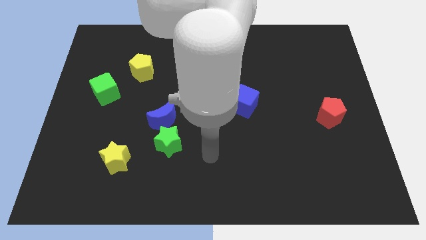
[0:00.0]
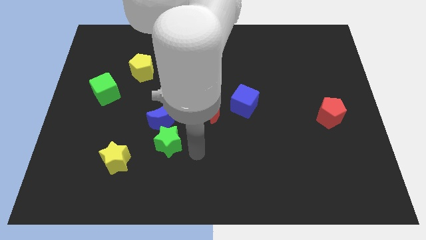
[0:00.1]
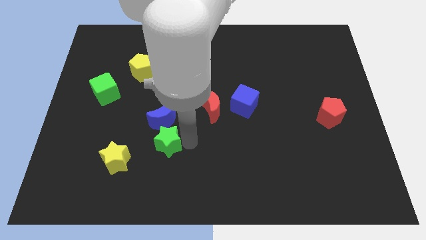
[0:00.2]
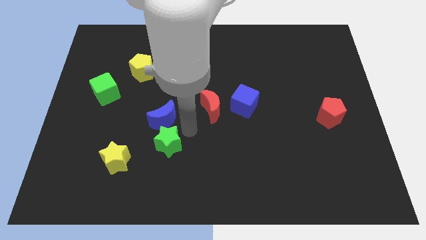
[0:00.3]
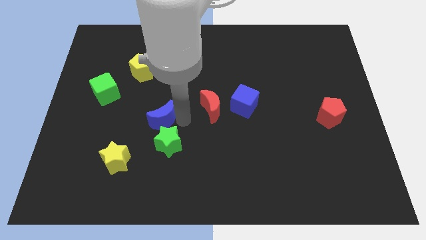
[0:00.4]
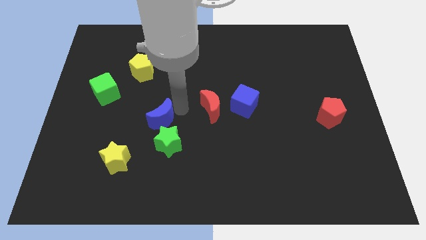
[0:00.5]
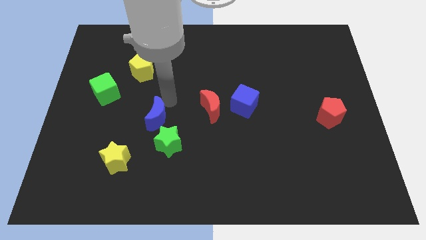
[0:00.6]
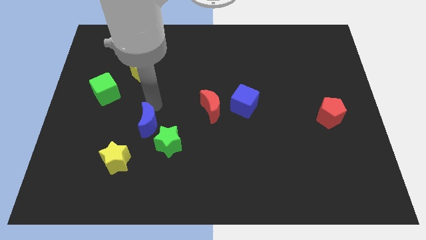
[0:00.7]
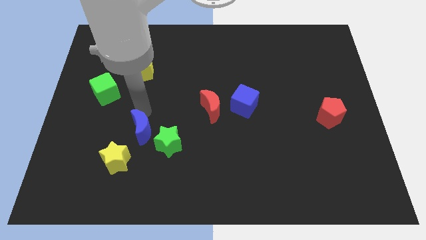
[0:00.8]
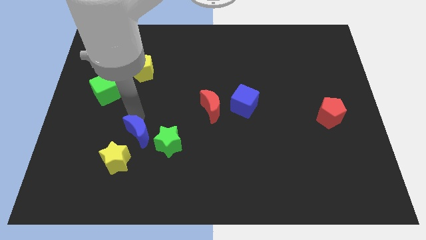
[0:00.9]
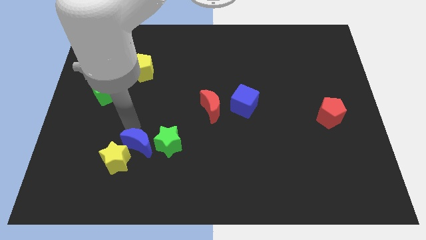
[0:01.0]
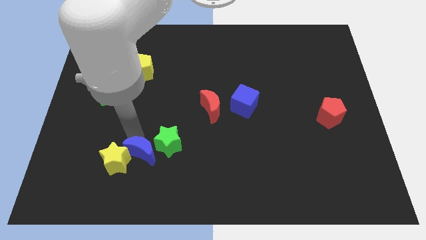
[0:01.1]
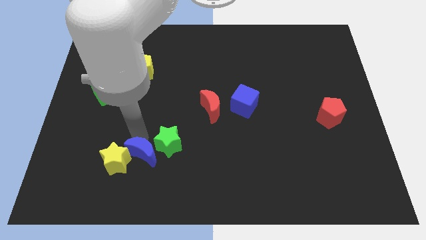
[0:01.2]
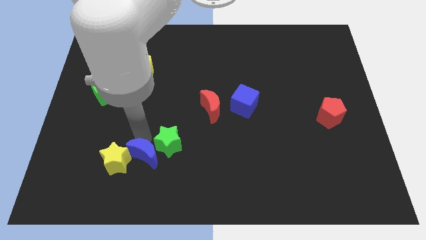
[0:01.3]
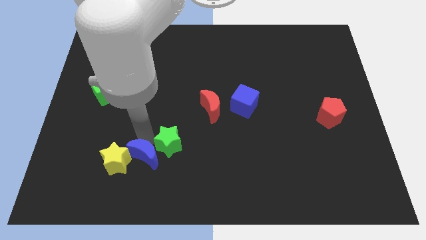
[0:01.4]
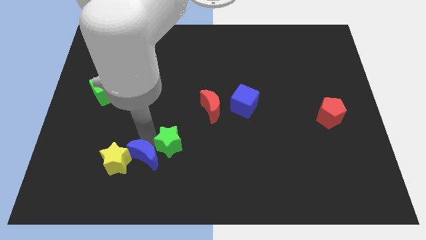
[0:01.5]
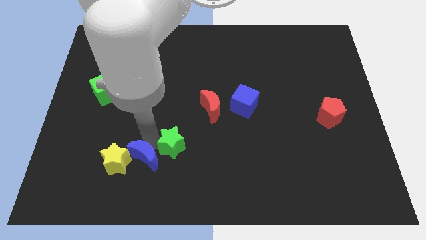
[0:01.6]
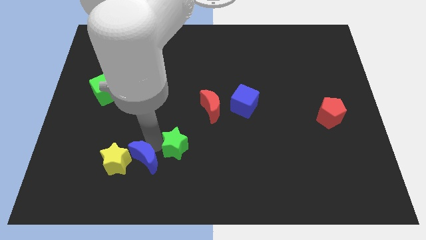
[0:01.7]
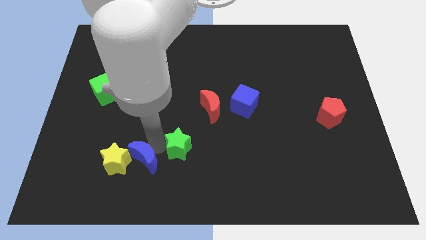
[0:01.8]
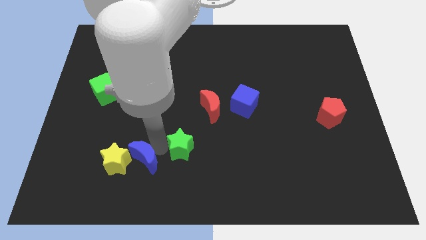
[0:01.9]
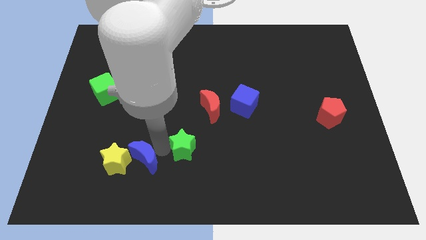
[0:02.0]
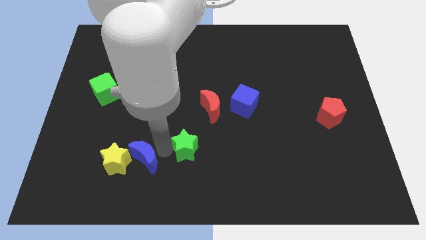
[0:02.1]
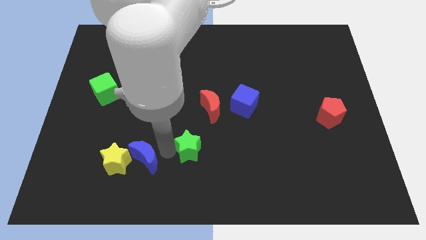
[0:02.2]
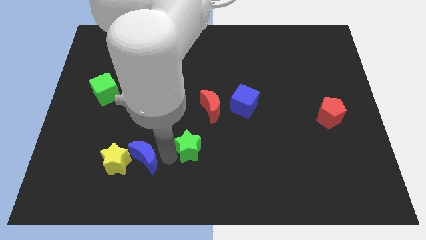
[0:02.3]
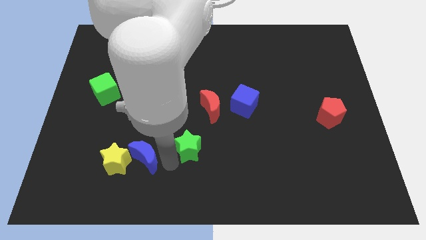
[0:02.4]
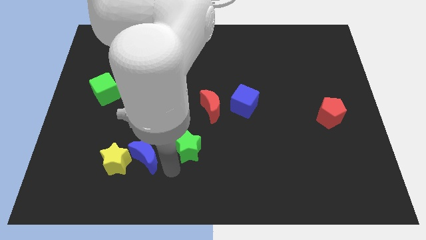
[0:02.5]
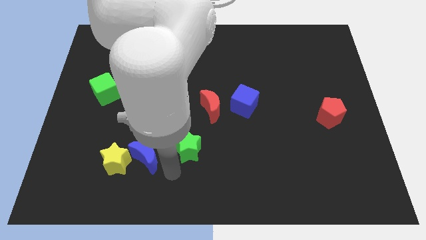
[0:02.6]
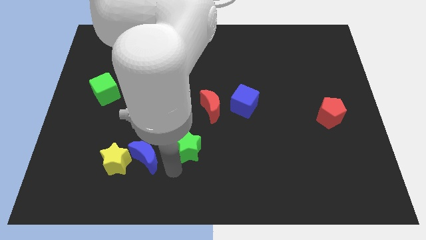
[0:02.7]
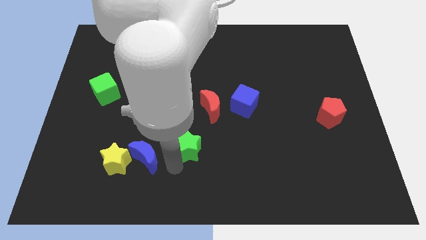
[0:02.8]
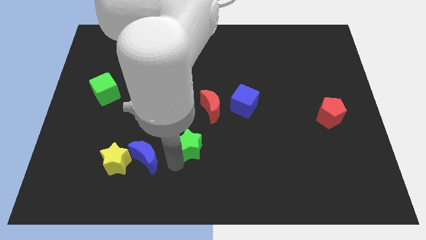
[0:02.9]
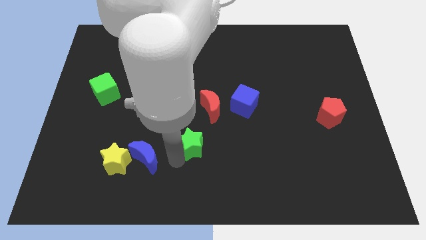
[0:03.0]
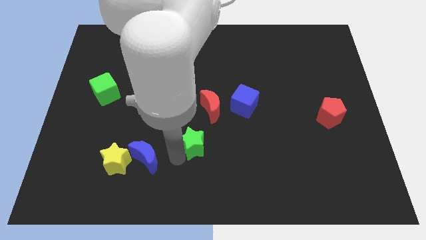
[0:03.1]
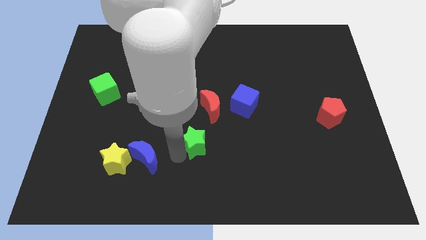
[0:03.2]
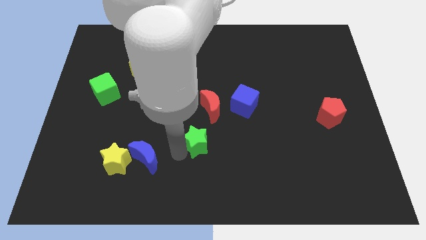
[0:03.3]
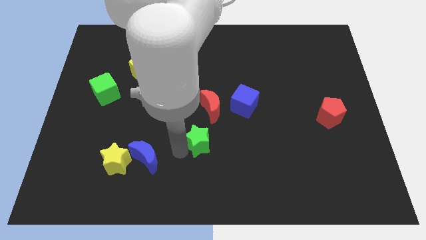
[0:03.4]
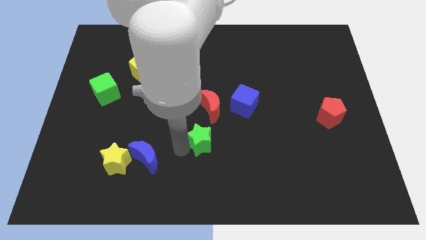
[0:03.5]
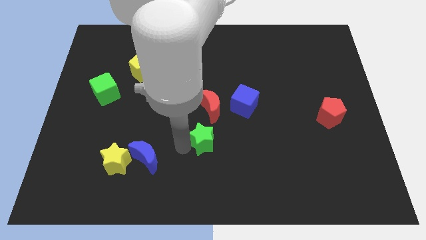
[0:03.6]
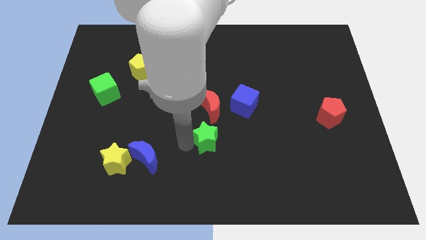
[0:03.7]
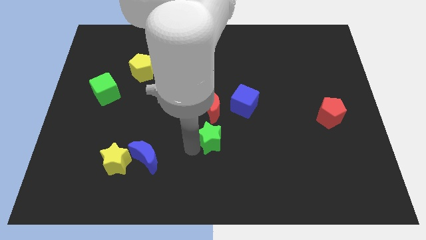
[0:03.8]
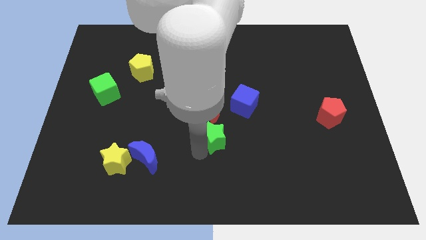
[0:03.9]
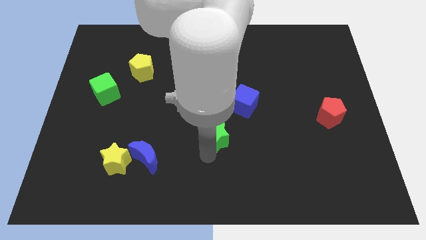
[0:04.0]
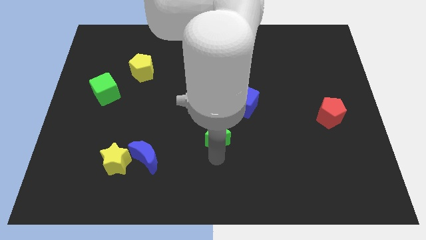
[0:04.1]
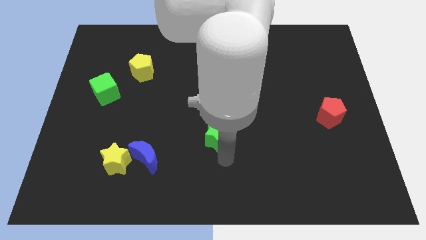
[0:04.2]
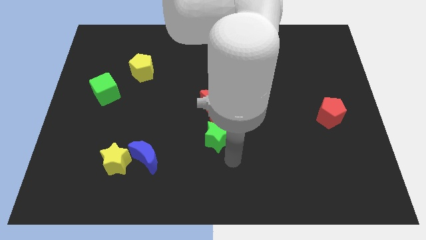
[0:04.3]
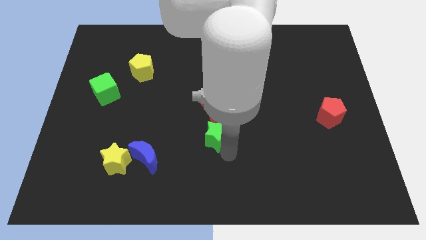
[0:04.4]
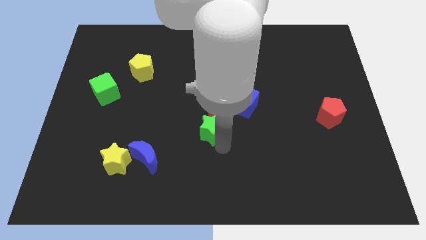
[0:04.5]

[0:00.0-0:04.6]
push the green star up and then to the right a little bit

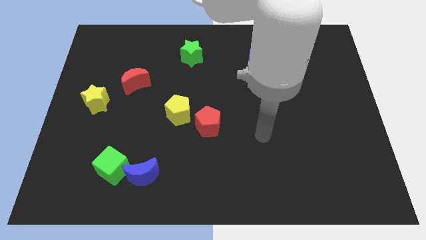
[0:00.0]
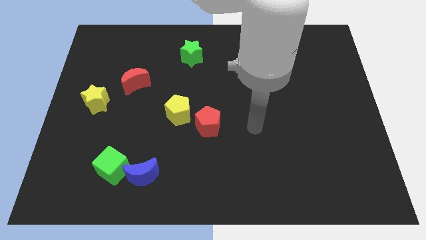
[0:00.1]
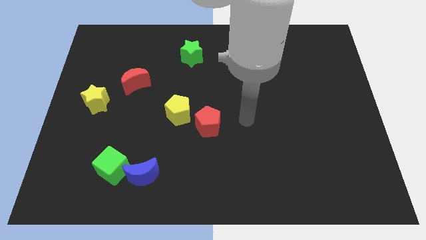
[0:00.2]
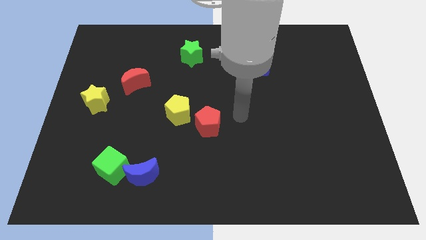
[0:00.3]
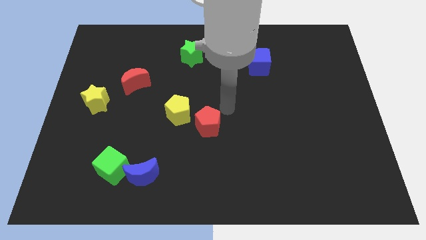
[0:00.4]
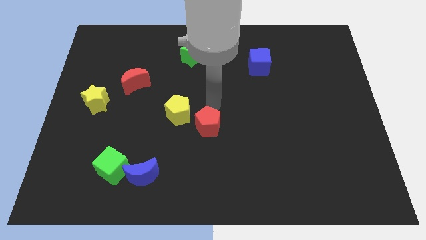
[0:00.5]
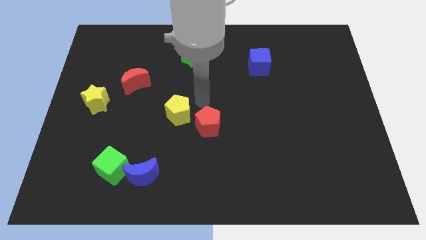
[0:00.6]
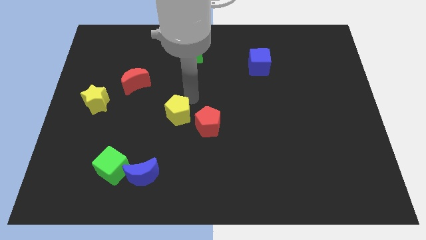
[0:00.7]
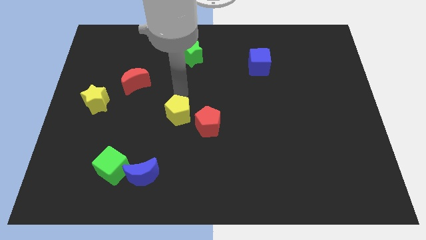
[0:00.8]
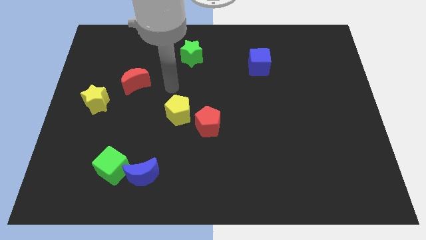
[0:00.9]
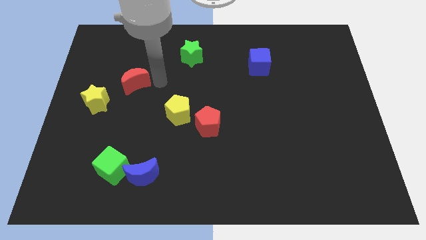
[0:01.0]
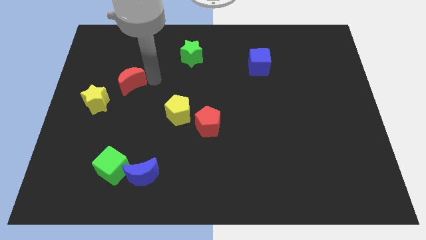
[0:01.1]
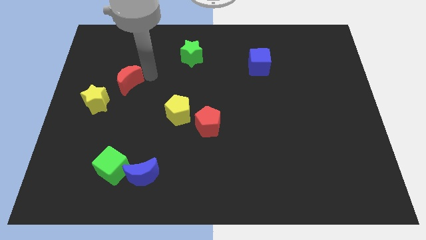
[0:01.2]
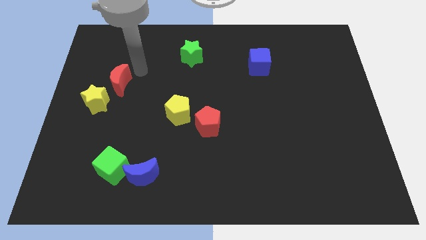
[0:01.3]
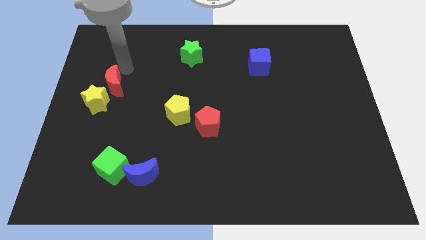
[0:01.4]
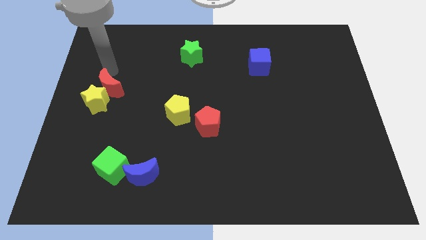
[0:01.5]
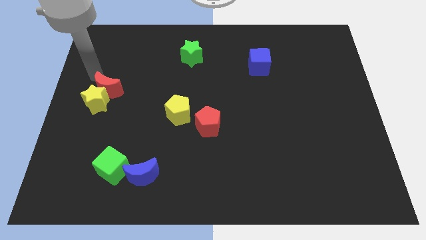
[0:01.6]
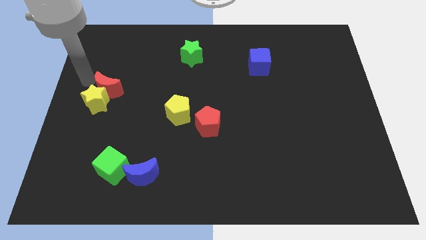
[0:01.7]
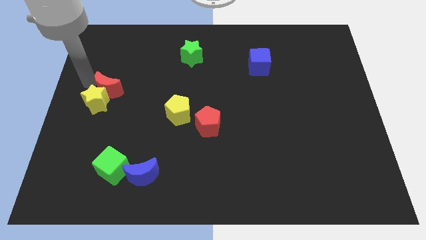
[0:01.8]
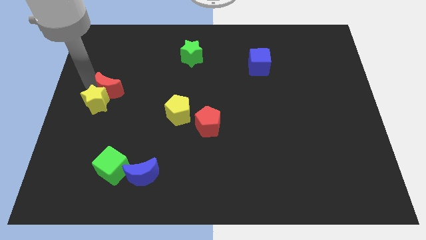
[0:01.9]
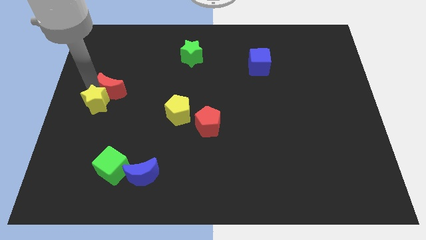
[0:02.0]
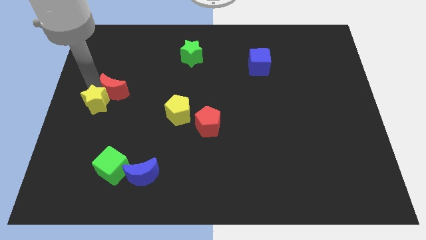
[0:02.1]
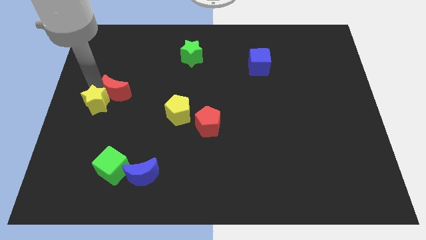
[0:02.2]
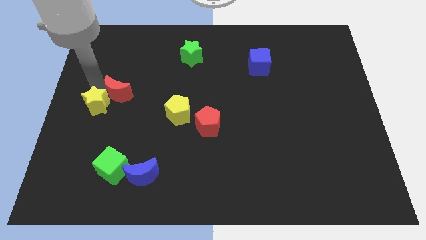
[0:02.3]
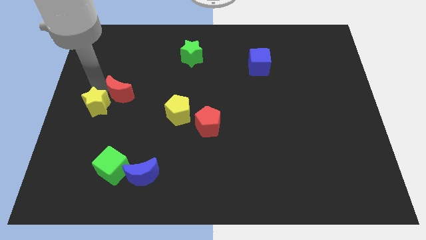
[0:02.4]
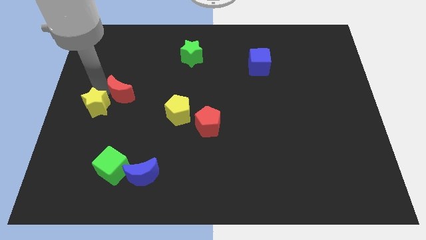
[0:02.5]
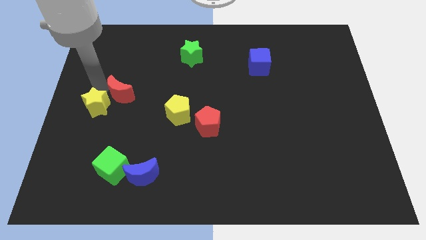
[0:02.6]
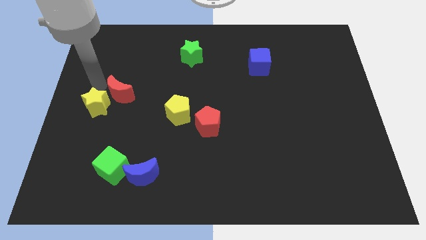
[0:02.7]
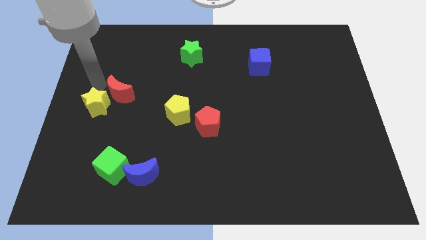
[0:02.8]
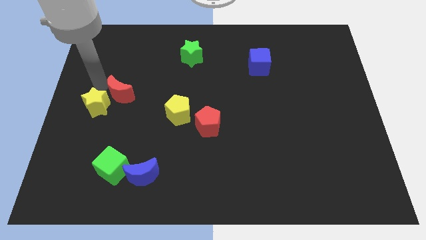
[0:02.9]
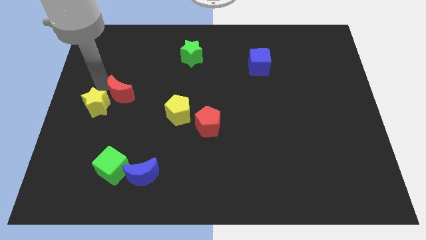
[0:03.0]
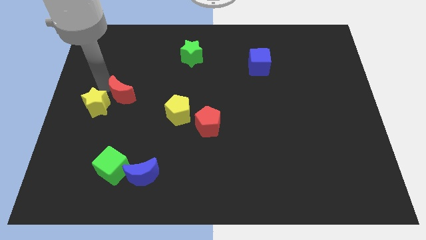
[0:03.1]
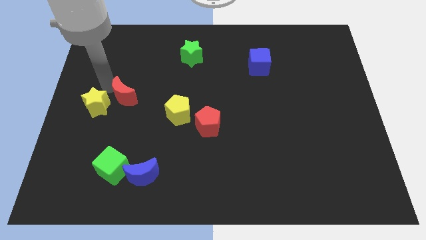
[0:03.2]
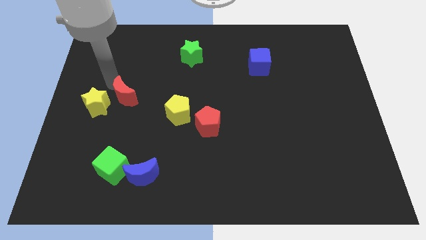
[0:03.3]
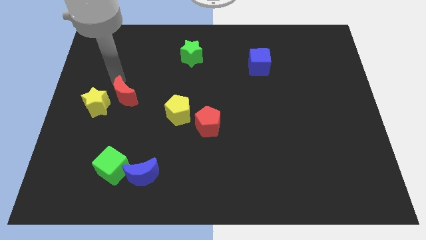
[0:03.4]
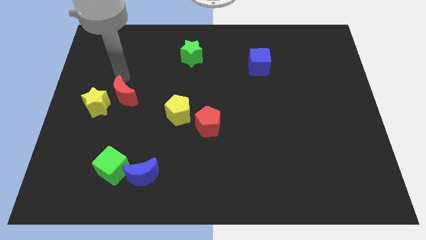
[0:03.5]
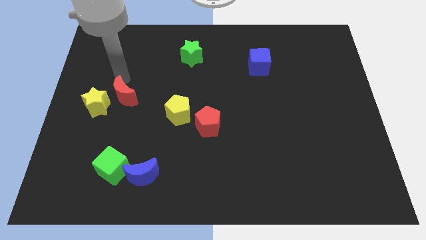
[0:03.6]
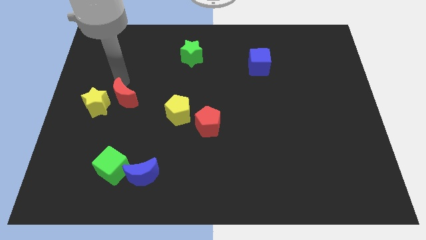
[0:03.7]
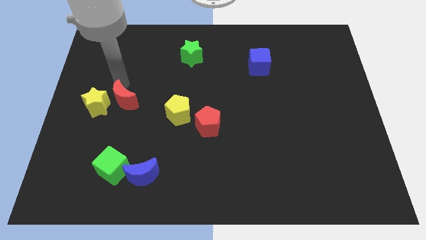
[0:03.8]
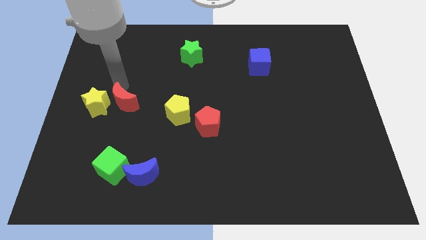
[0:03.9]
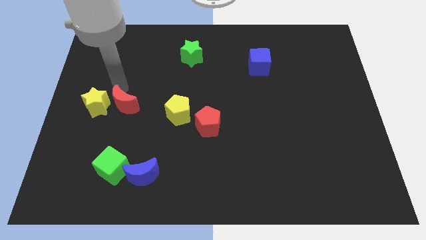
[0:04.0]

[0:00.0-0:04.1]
push the red moon slightly downwards
